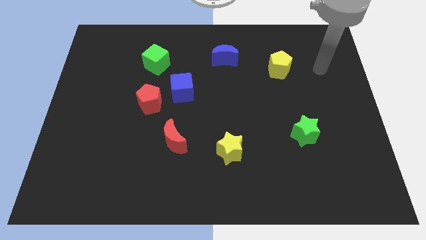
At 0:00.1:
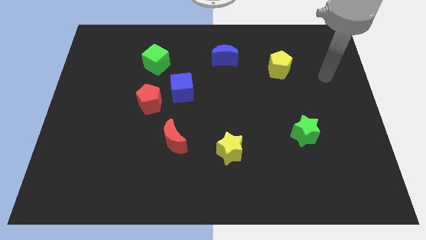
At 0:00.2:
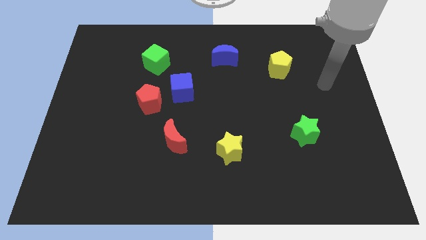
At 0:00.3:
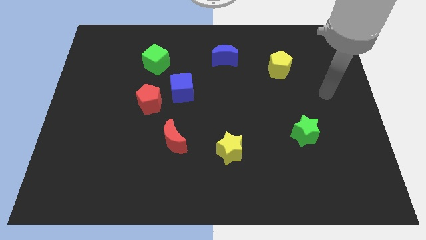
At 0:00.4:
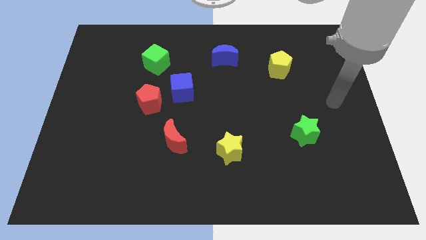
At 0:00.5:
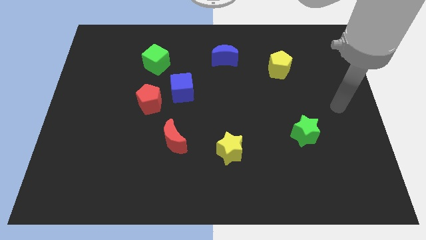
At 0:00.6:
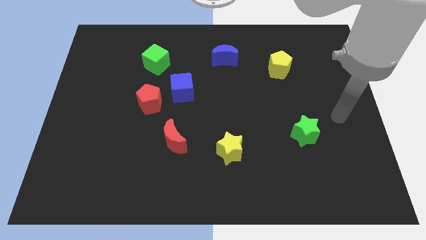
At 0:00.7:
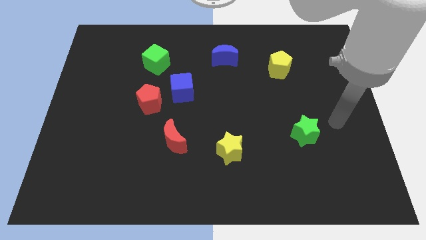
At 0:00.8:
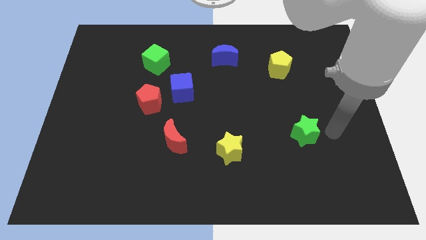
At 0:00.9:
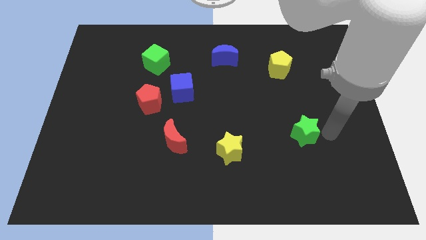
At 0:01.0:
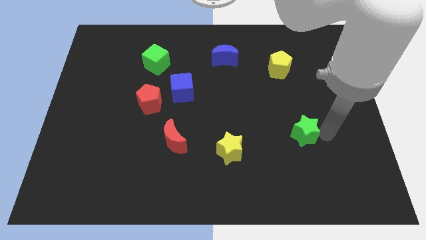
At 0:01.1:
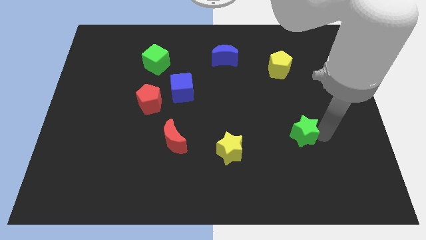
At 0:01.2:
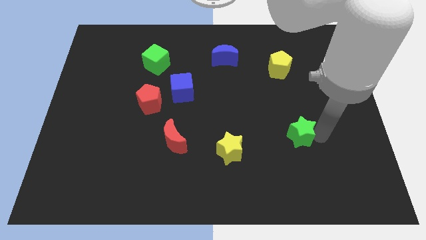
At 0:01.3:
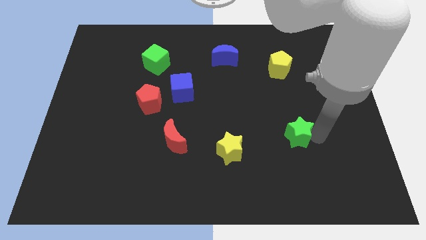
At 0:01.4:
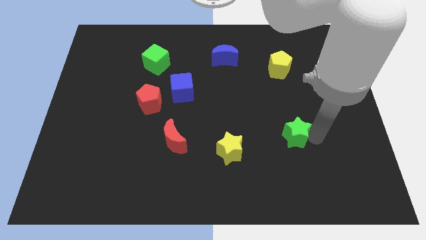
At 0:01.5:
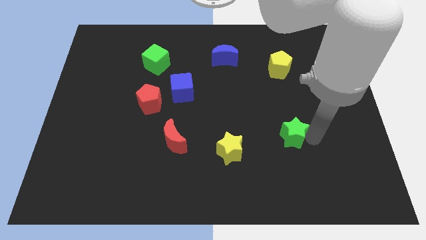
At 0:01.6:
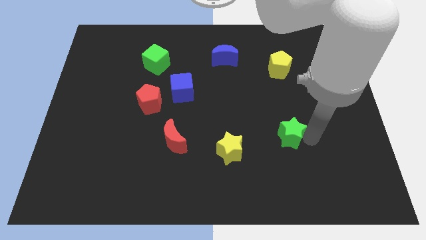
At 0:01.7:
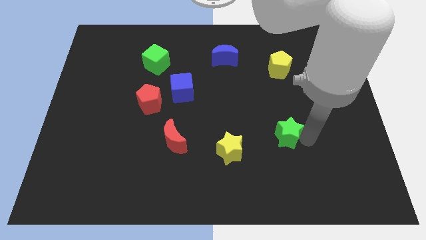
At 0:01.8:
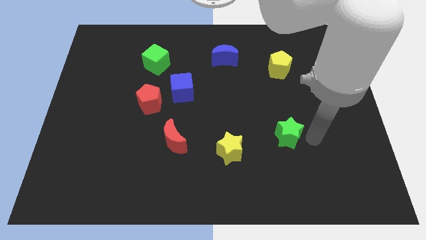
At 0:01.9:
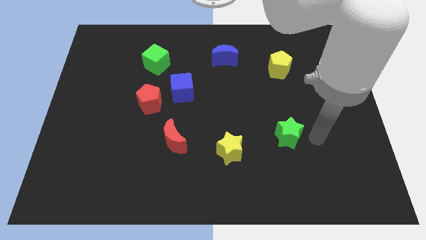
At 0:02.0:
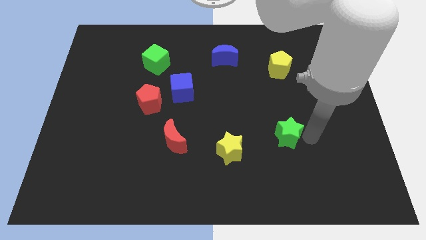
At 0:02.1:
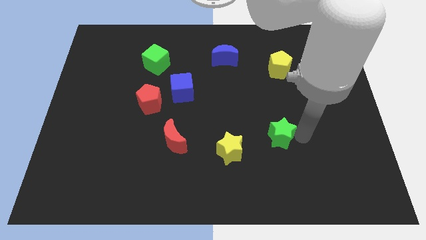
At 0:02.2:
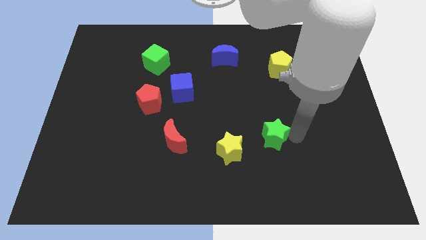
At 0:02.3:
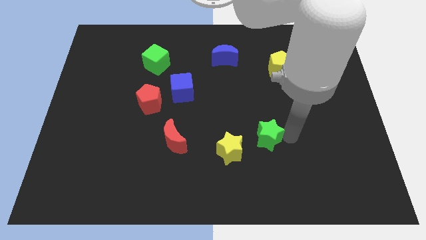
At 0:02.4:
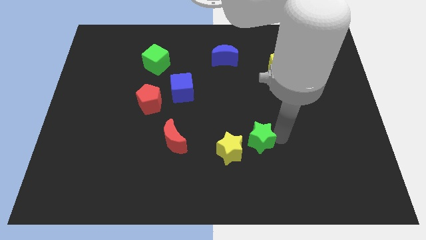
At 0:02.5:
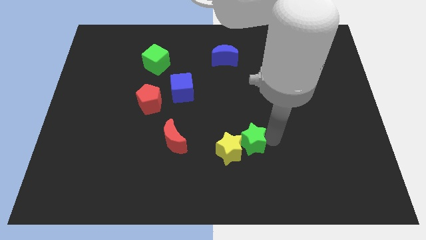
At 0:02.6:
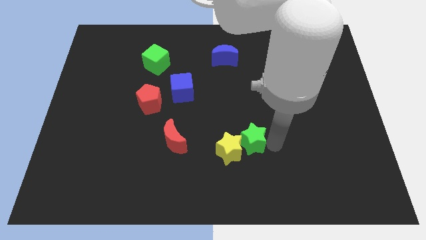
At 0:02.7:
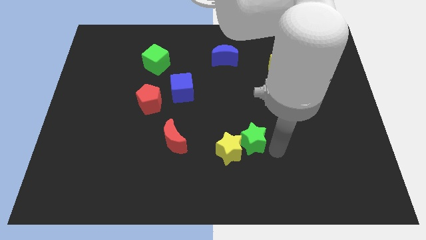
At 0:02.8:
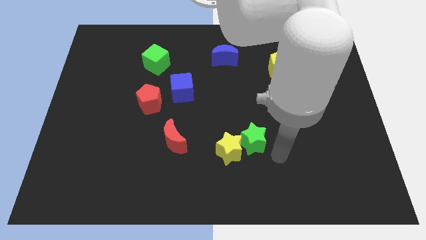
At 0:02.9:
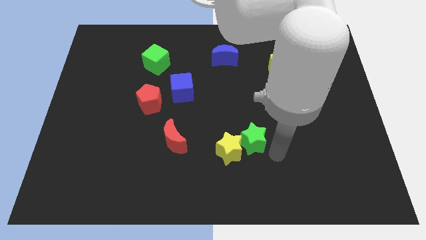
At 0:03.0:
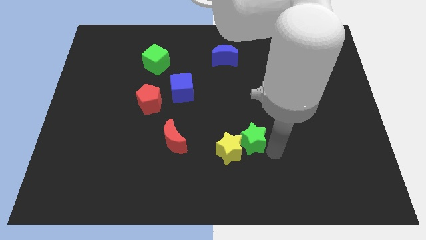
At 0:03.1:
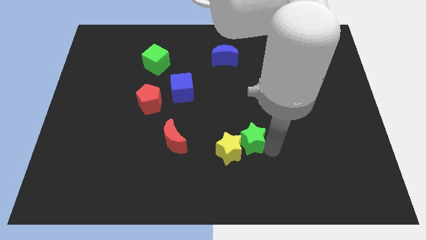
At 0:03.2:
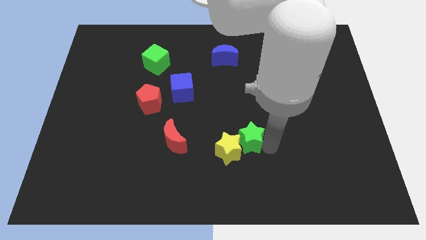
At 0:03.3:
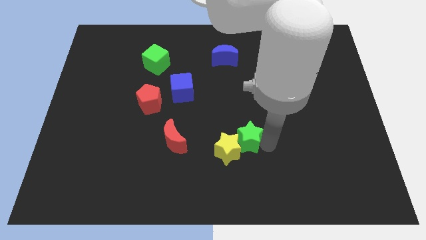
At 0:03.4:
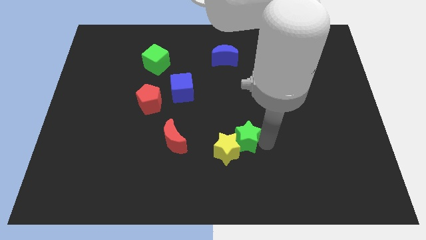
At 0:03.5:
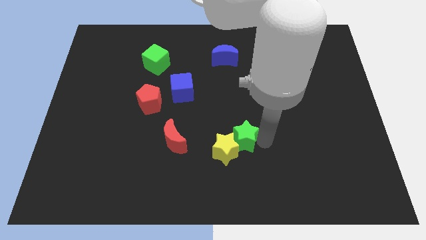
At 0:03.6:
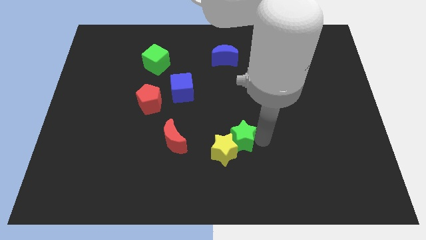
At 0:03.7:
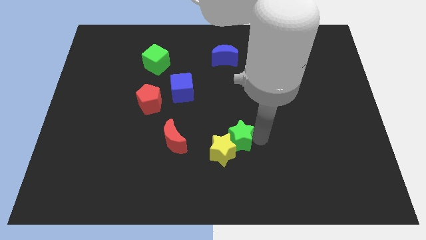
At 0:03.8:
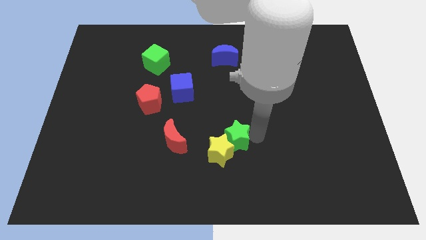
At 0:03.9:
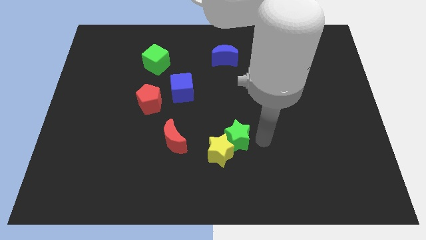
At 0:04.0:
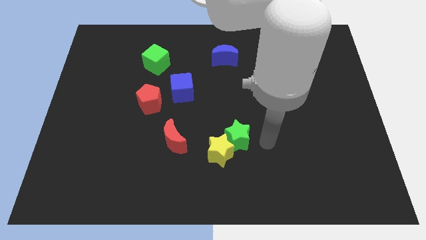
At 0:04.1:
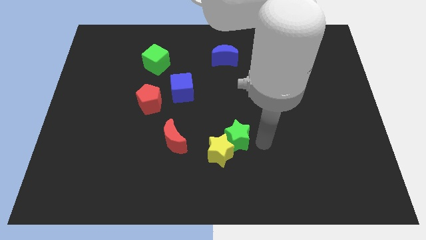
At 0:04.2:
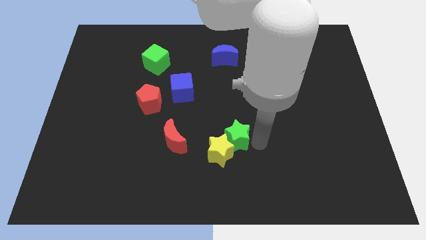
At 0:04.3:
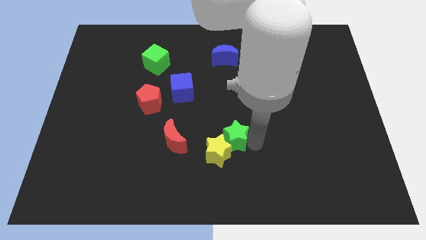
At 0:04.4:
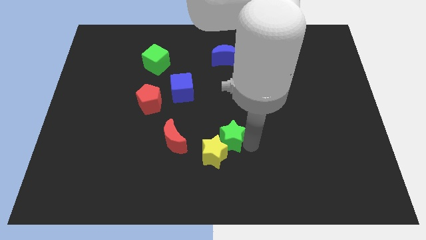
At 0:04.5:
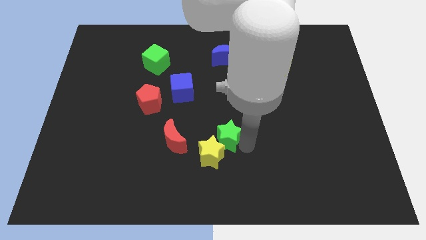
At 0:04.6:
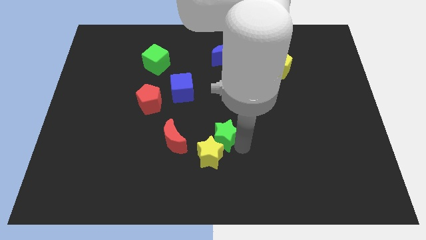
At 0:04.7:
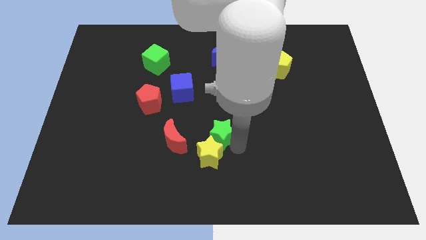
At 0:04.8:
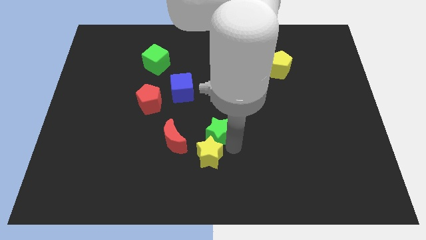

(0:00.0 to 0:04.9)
slide the green star to the top left of the yellow star

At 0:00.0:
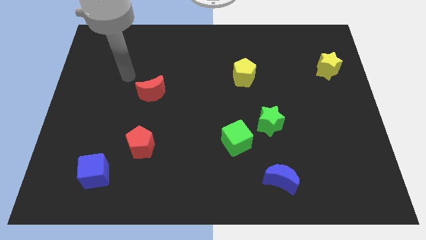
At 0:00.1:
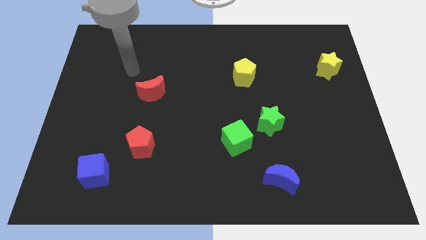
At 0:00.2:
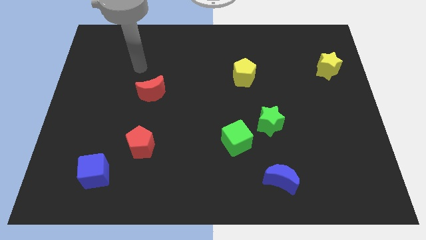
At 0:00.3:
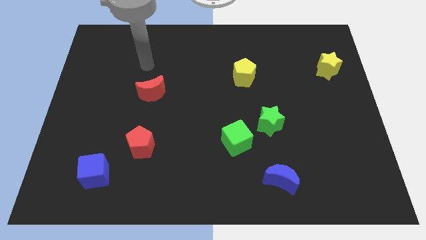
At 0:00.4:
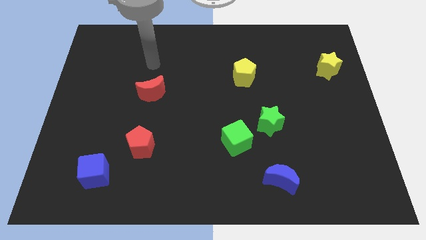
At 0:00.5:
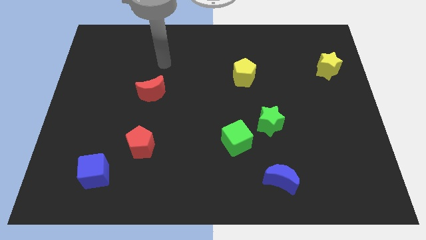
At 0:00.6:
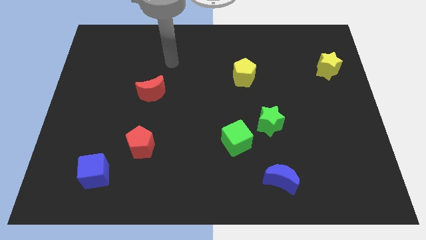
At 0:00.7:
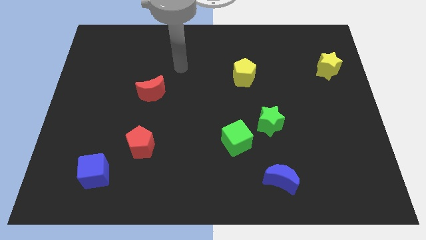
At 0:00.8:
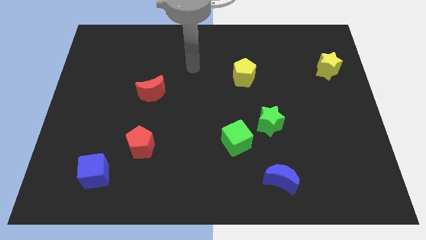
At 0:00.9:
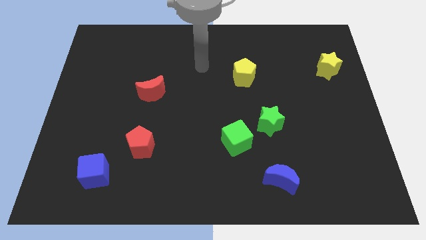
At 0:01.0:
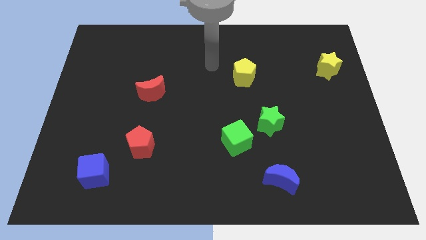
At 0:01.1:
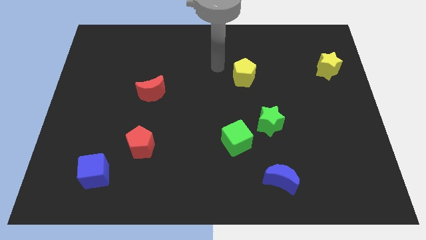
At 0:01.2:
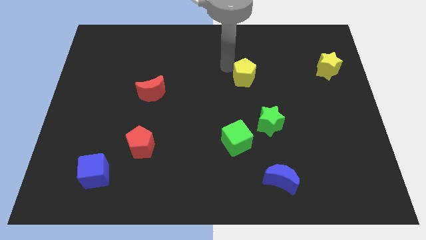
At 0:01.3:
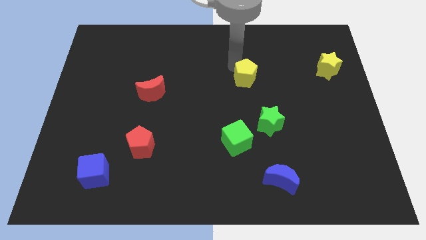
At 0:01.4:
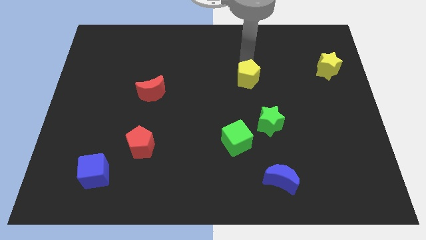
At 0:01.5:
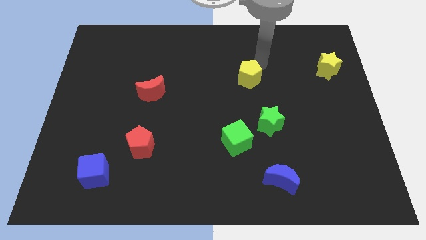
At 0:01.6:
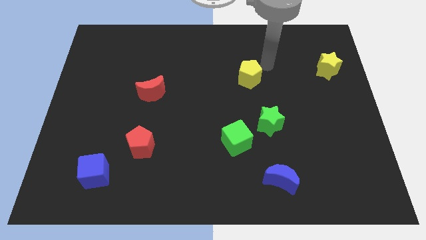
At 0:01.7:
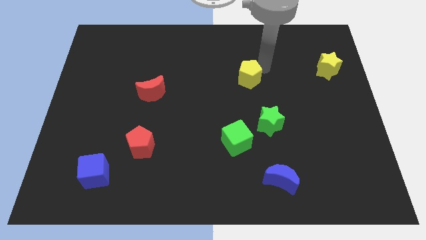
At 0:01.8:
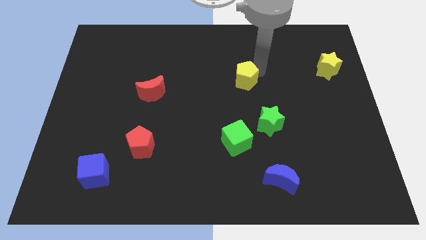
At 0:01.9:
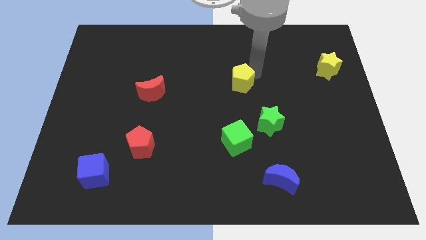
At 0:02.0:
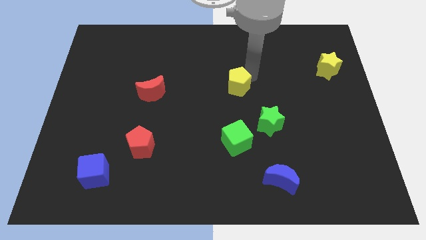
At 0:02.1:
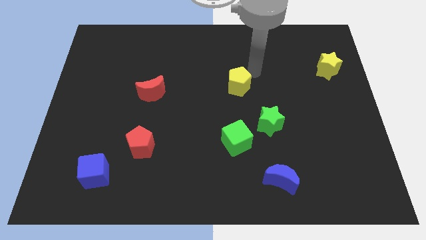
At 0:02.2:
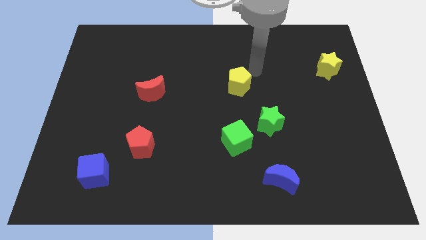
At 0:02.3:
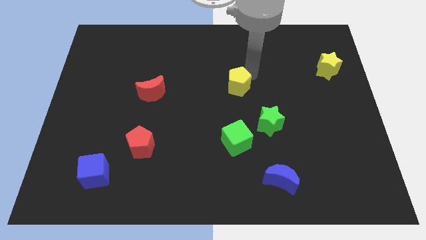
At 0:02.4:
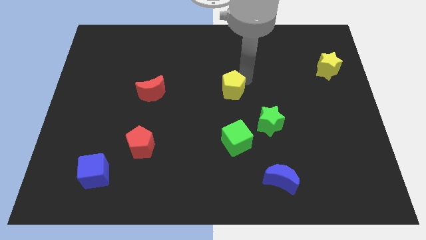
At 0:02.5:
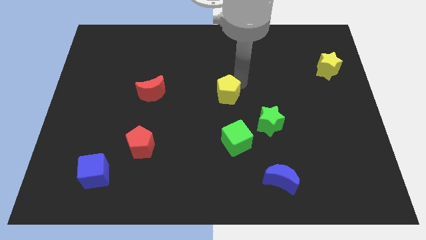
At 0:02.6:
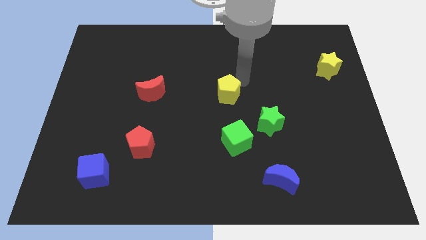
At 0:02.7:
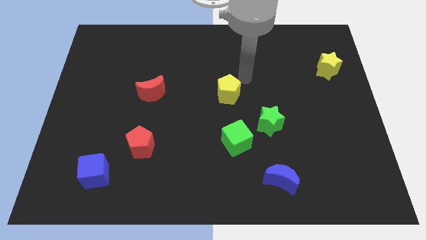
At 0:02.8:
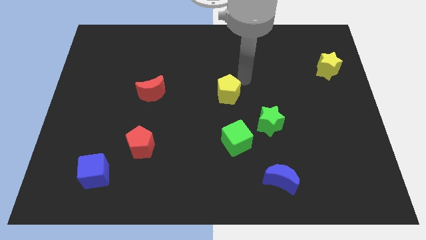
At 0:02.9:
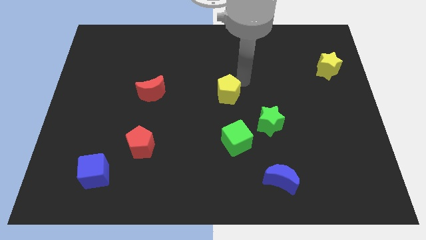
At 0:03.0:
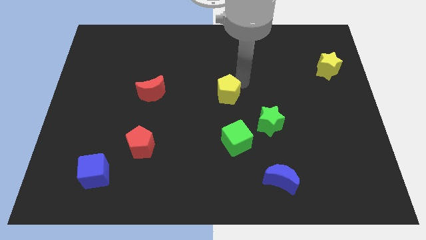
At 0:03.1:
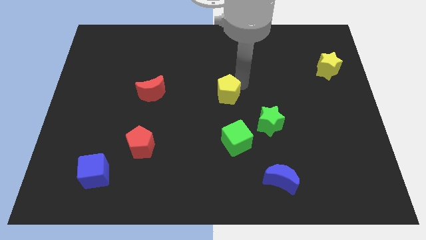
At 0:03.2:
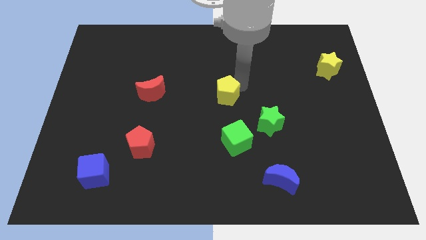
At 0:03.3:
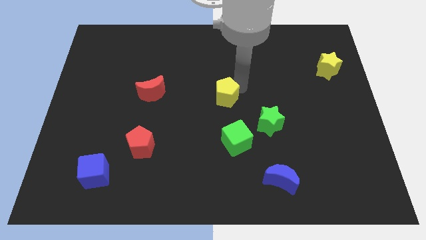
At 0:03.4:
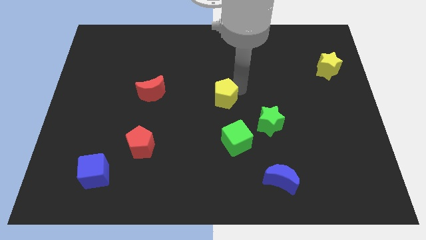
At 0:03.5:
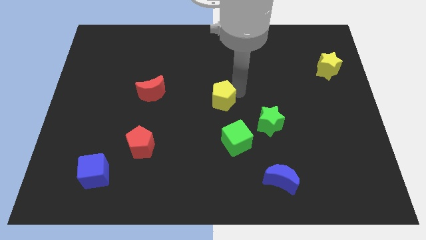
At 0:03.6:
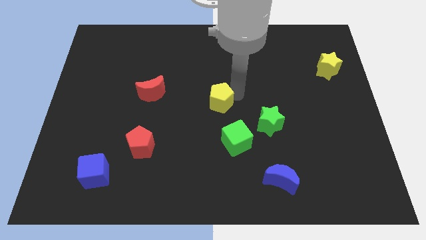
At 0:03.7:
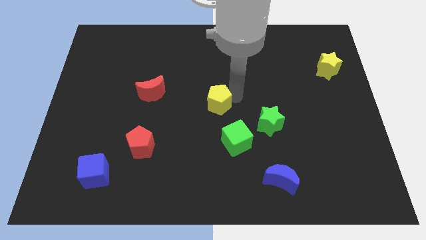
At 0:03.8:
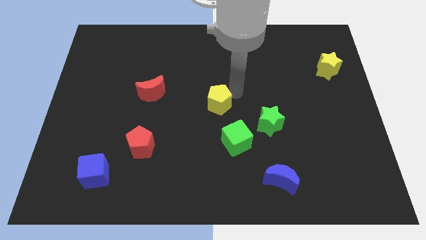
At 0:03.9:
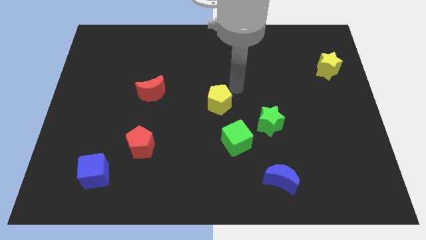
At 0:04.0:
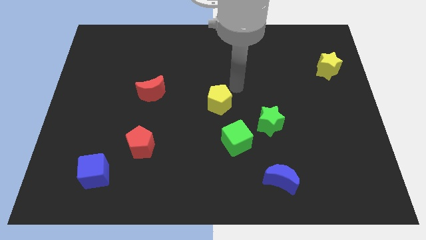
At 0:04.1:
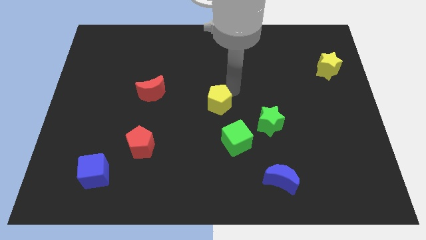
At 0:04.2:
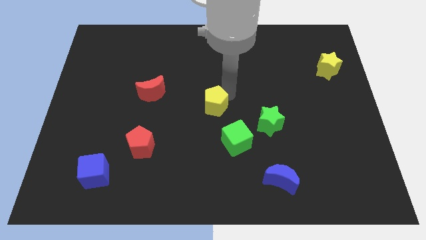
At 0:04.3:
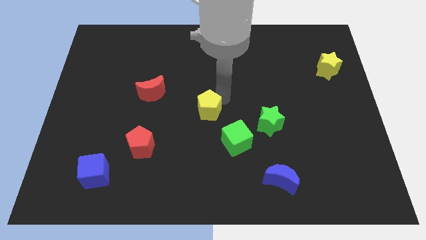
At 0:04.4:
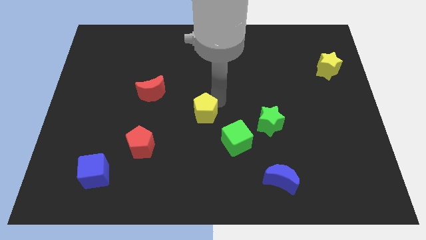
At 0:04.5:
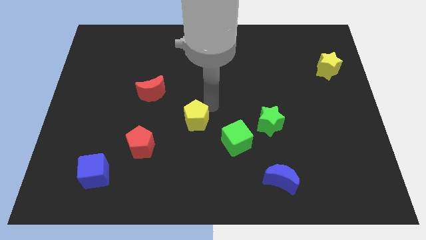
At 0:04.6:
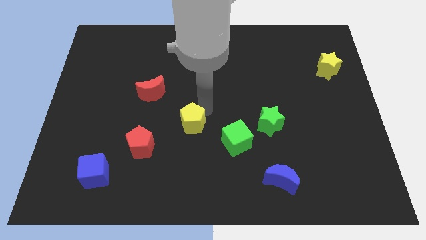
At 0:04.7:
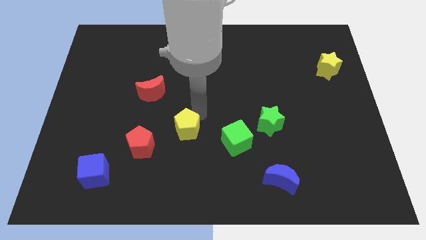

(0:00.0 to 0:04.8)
slide the yellow pentagon right of the red pentagon
